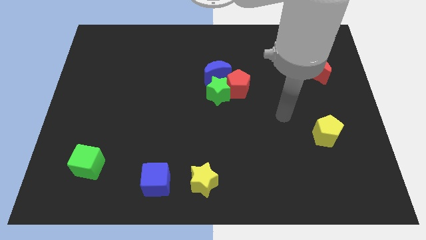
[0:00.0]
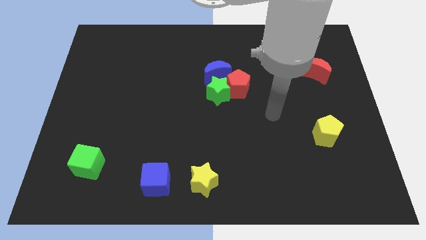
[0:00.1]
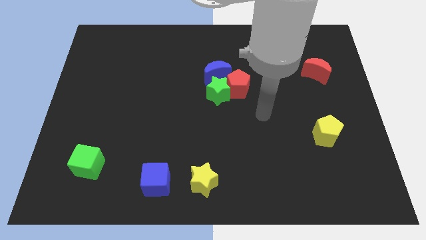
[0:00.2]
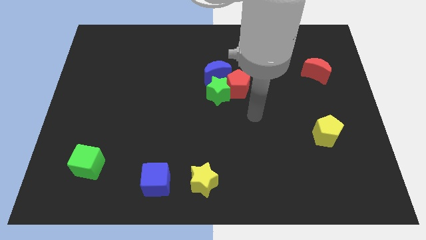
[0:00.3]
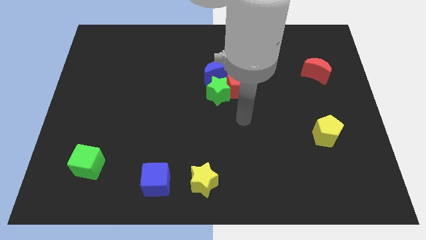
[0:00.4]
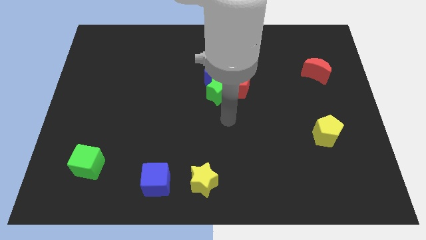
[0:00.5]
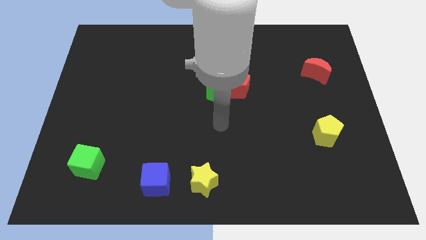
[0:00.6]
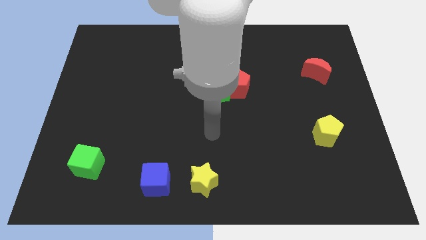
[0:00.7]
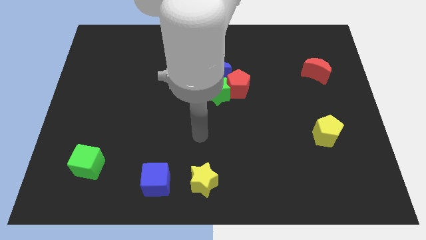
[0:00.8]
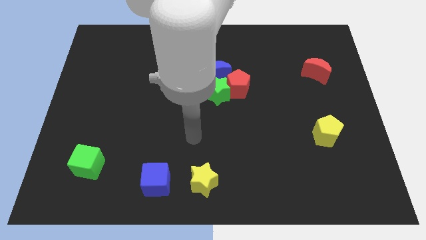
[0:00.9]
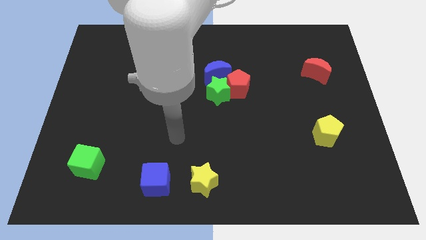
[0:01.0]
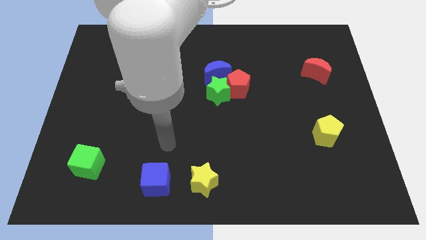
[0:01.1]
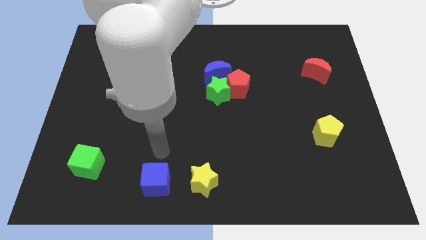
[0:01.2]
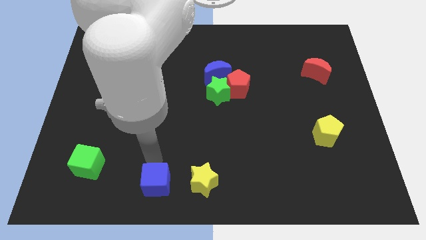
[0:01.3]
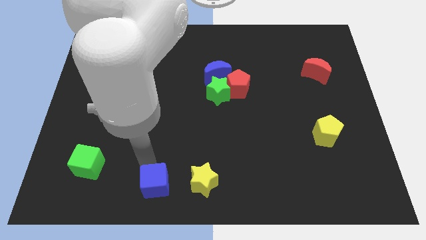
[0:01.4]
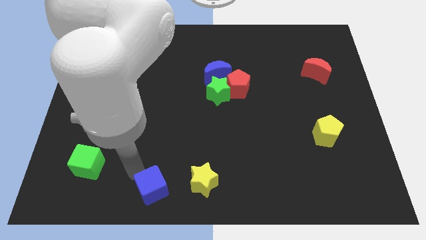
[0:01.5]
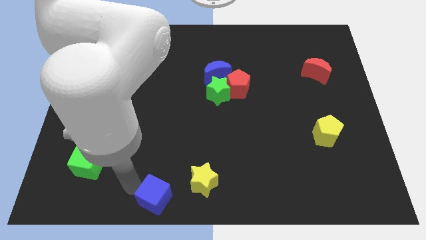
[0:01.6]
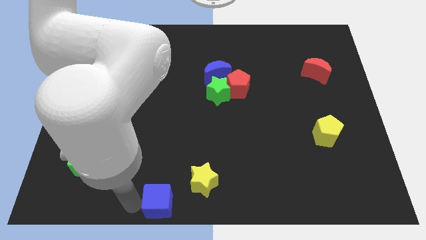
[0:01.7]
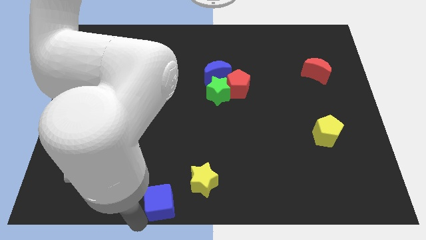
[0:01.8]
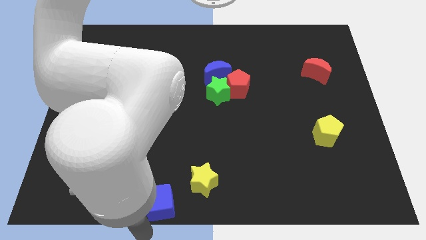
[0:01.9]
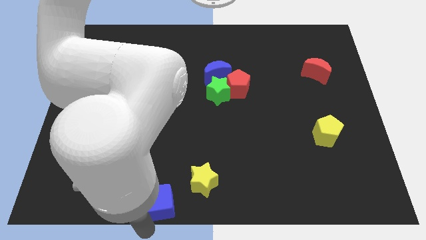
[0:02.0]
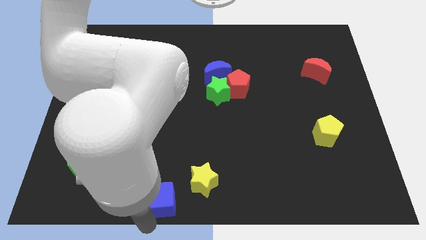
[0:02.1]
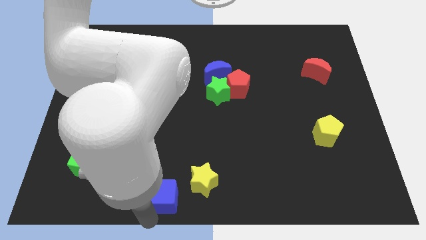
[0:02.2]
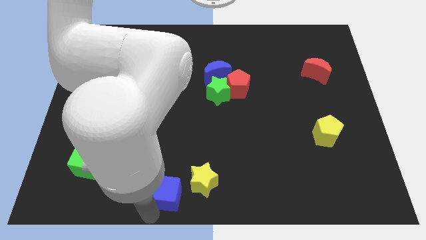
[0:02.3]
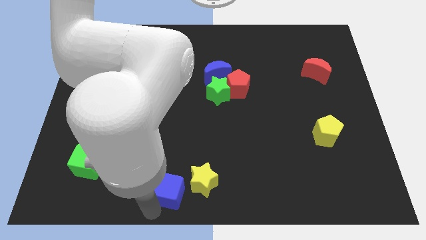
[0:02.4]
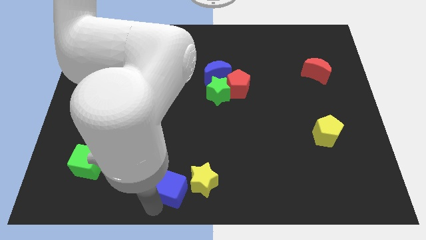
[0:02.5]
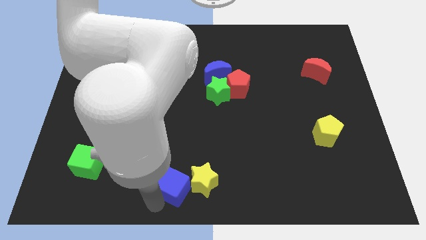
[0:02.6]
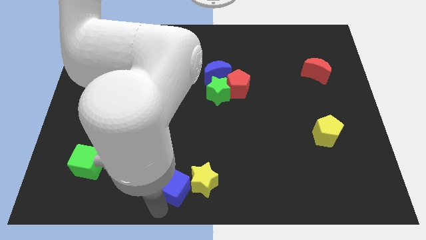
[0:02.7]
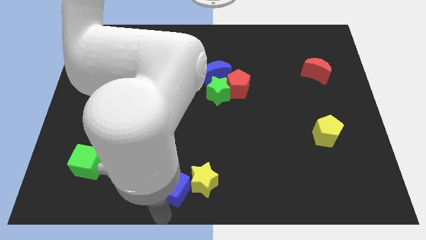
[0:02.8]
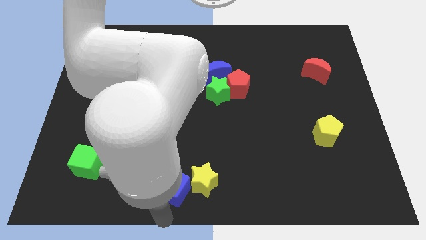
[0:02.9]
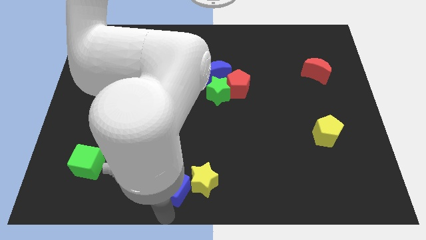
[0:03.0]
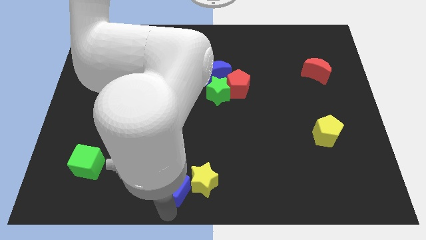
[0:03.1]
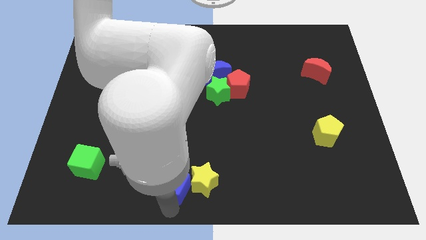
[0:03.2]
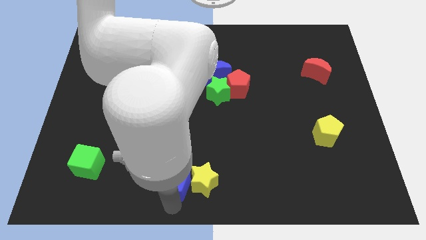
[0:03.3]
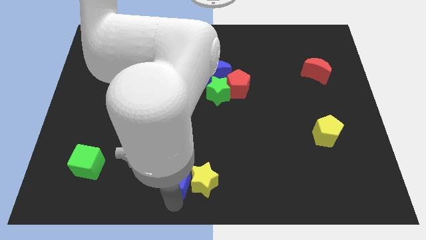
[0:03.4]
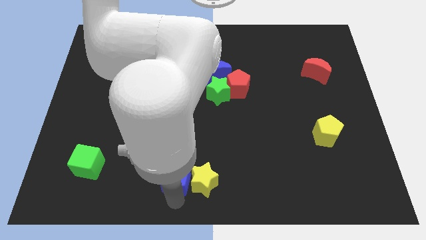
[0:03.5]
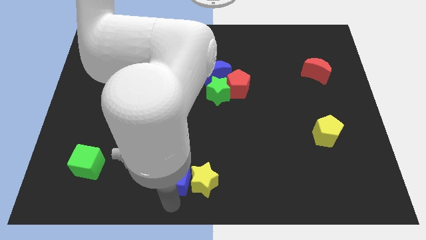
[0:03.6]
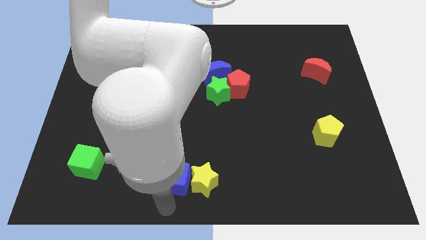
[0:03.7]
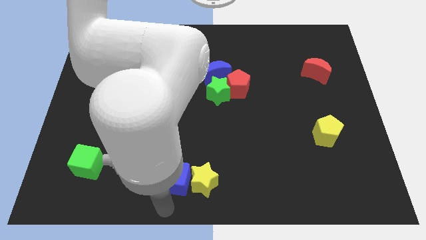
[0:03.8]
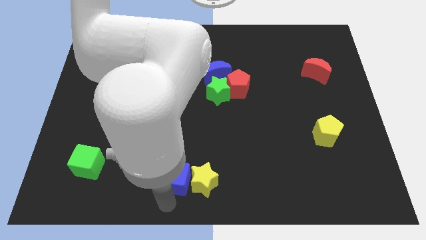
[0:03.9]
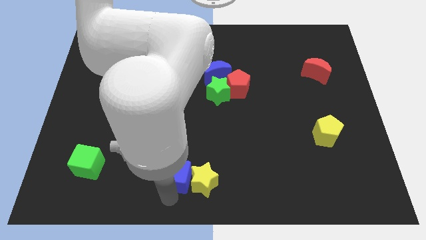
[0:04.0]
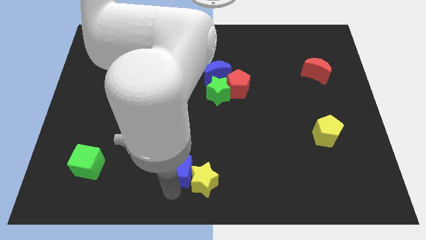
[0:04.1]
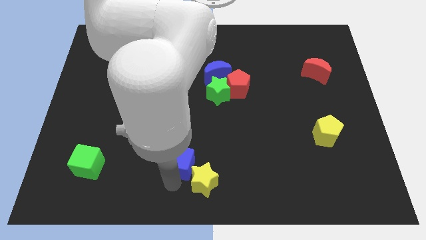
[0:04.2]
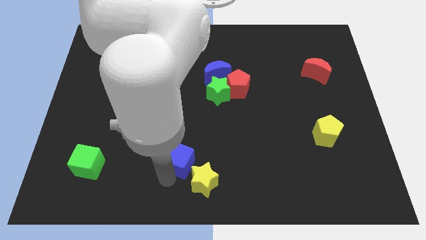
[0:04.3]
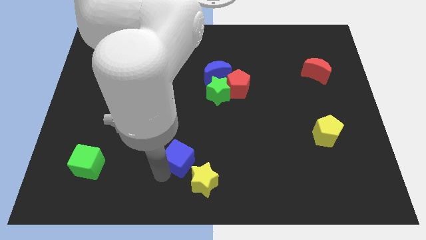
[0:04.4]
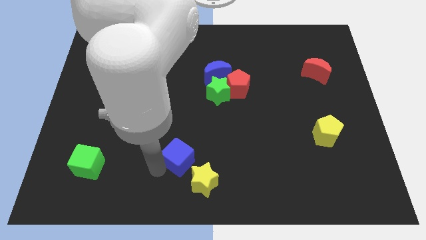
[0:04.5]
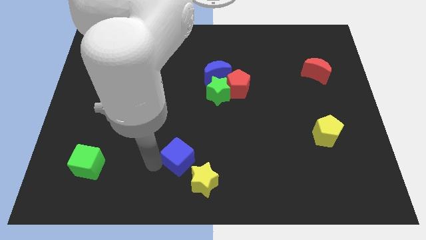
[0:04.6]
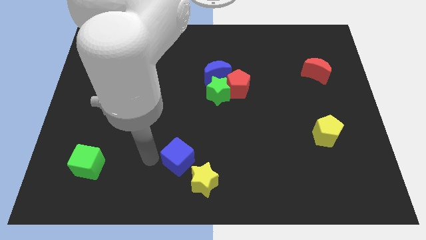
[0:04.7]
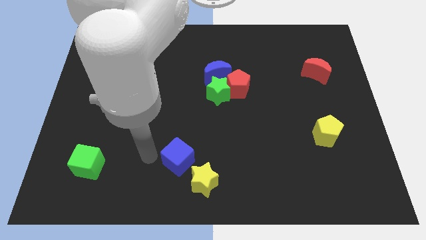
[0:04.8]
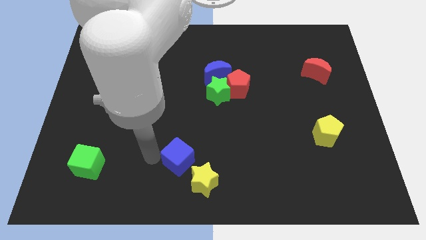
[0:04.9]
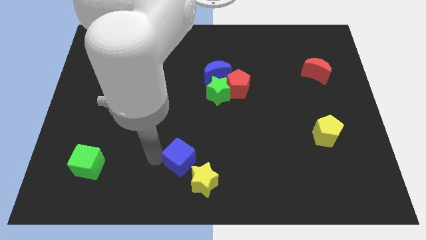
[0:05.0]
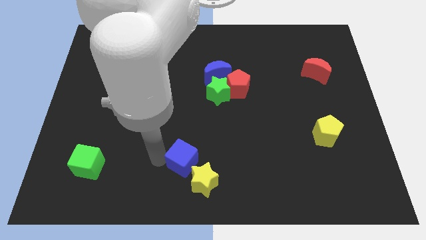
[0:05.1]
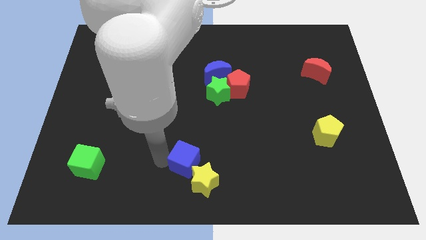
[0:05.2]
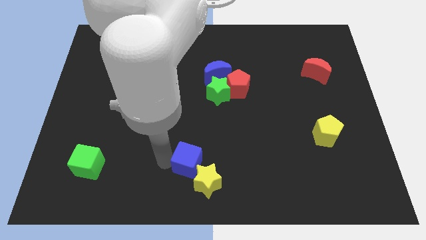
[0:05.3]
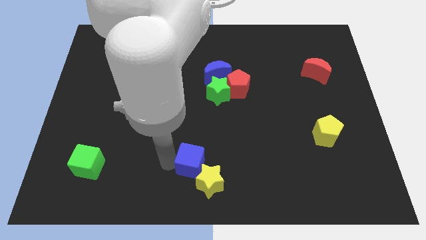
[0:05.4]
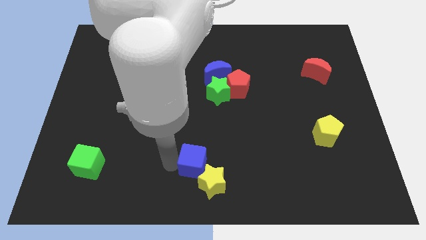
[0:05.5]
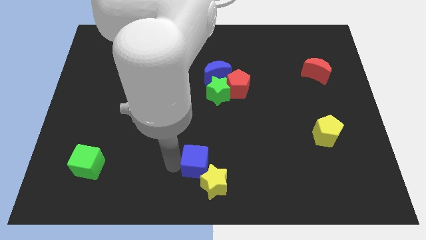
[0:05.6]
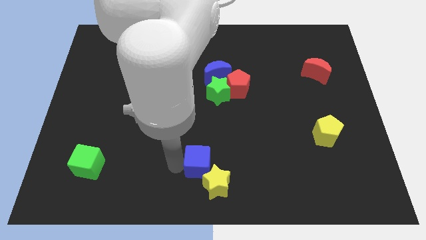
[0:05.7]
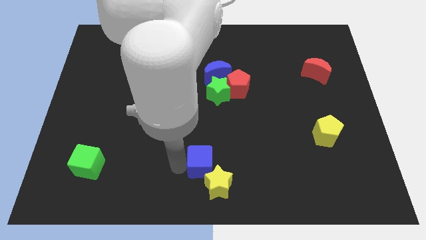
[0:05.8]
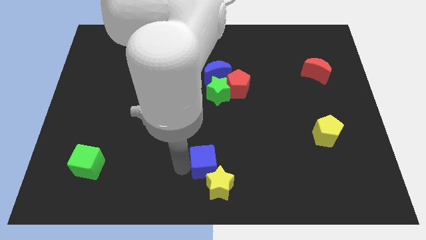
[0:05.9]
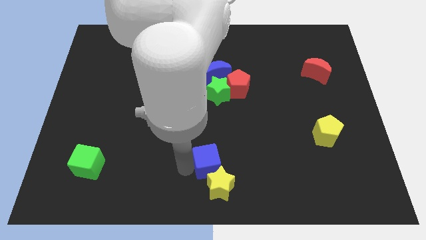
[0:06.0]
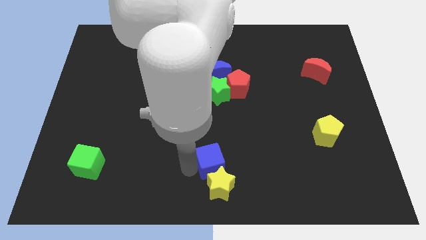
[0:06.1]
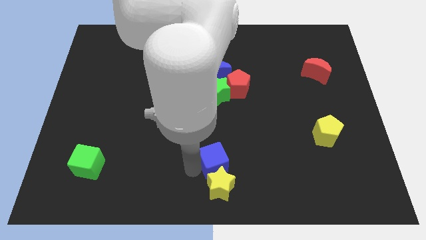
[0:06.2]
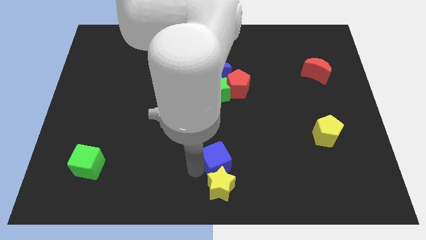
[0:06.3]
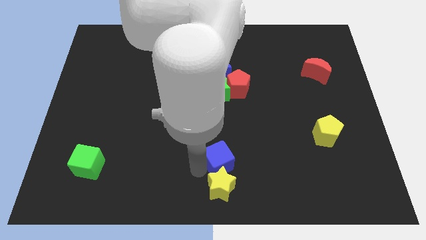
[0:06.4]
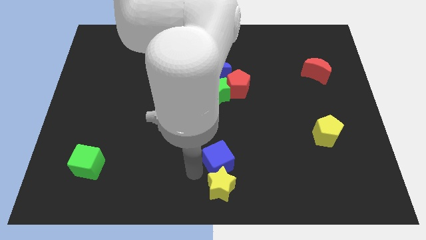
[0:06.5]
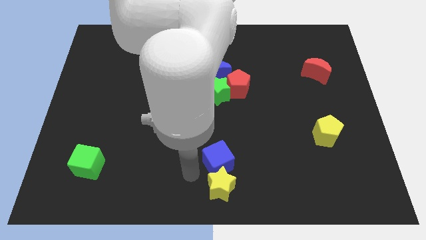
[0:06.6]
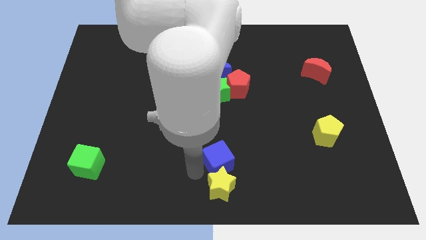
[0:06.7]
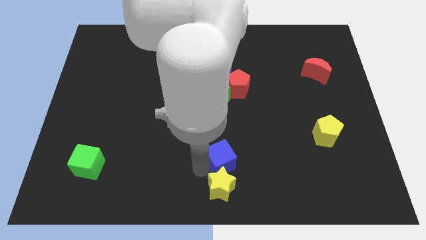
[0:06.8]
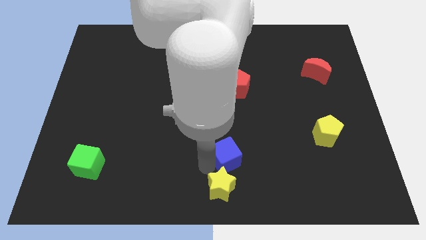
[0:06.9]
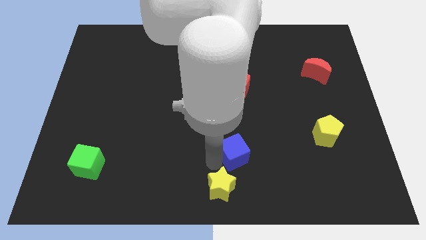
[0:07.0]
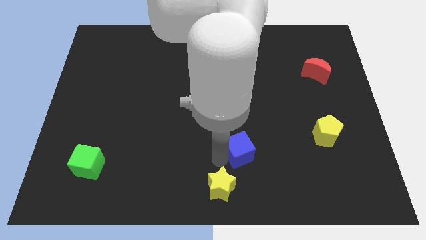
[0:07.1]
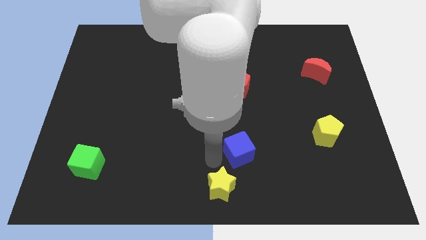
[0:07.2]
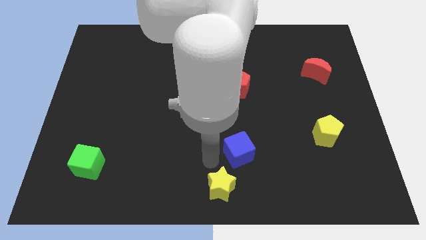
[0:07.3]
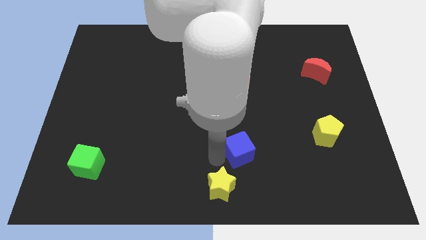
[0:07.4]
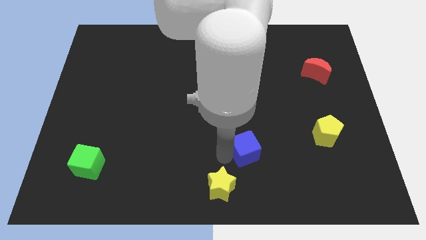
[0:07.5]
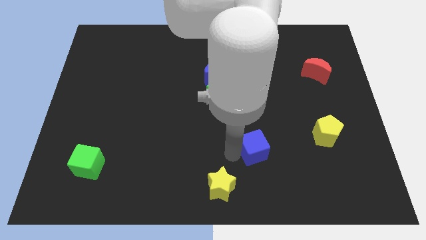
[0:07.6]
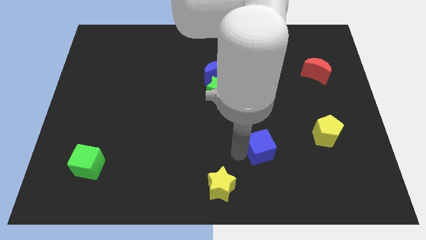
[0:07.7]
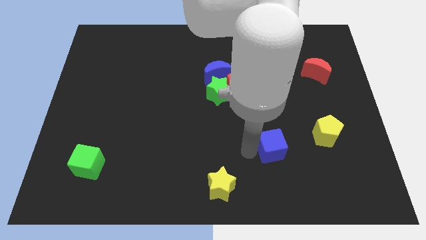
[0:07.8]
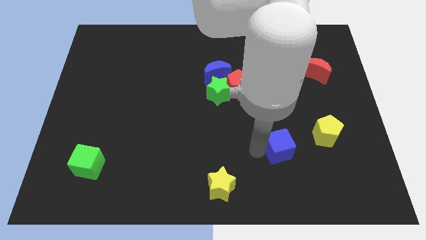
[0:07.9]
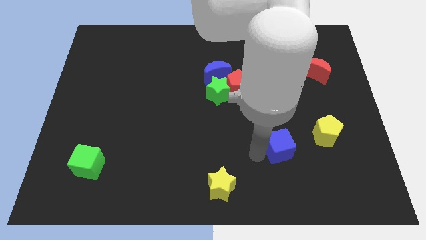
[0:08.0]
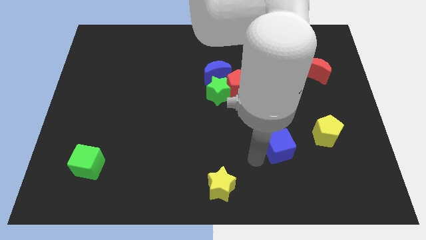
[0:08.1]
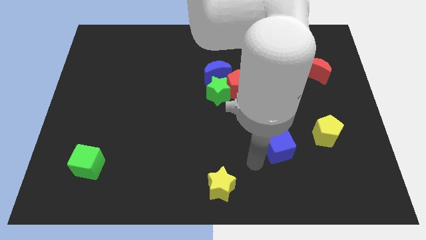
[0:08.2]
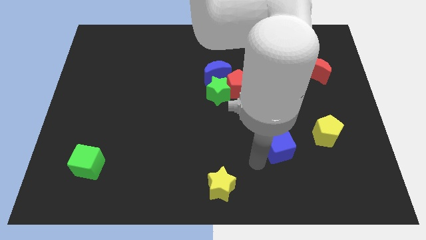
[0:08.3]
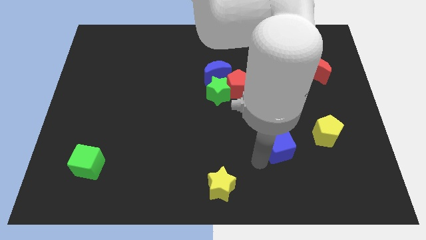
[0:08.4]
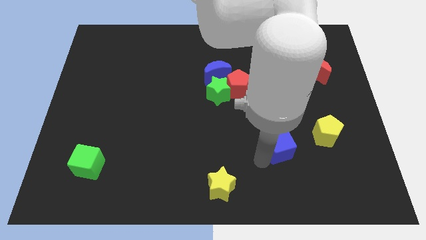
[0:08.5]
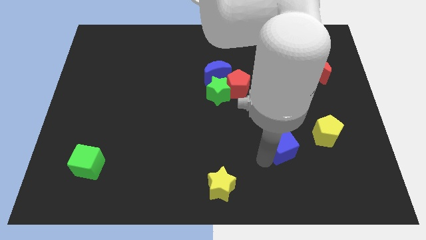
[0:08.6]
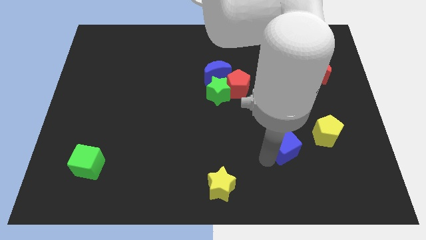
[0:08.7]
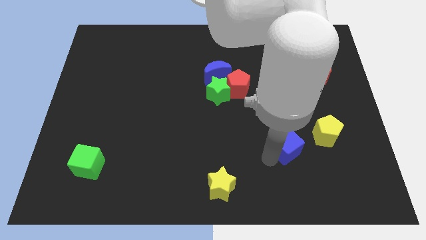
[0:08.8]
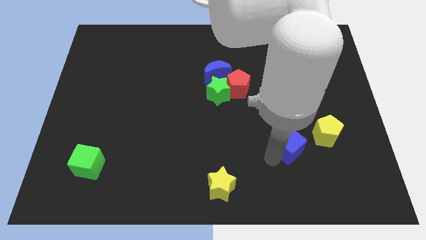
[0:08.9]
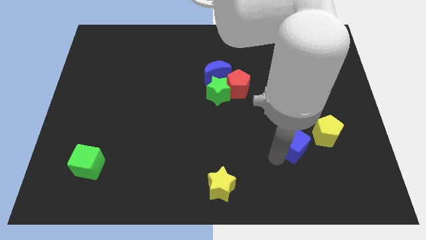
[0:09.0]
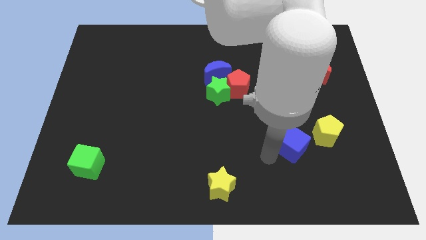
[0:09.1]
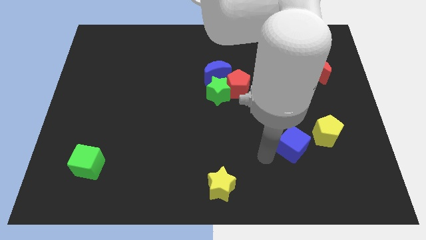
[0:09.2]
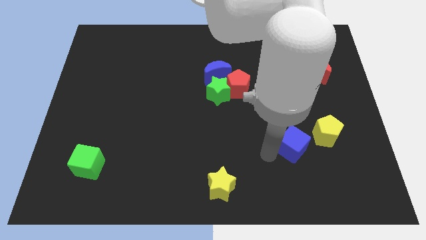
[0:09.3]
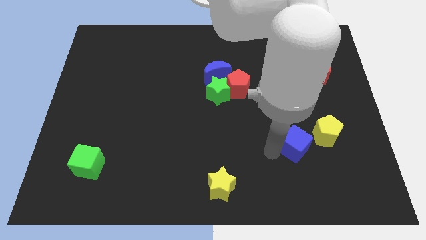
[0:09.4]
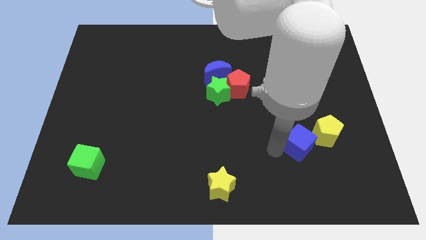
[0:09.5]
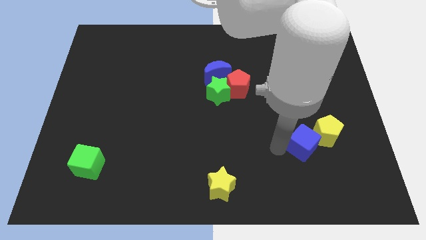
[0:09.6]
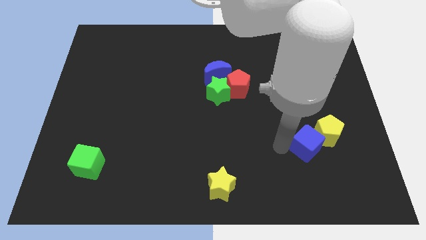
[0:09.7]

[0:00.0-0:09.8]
move the blue cube next to the yellow pentagon
